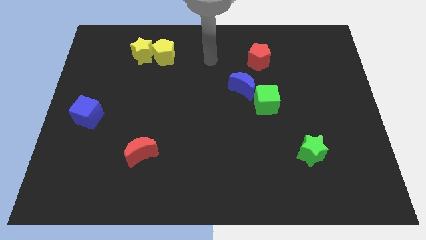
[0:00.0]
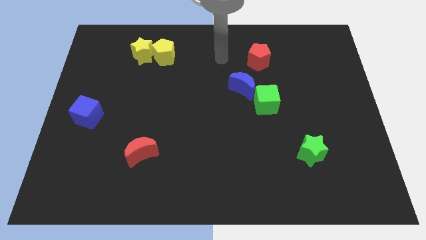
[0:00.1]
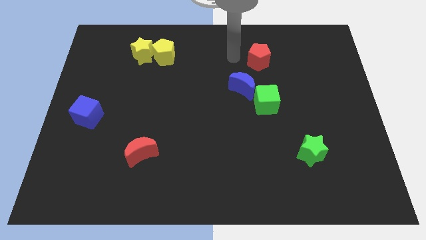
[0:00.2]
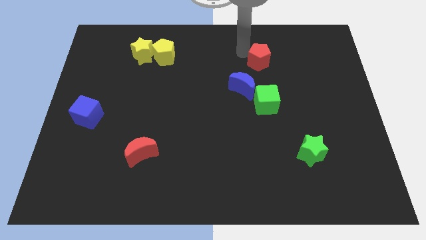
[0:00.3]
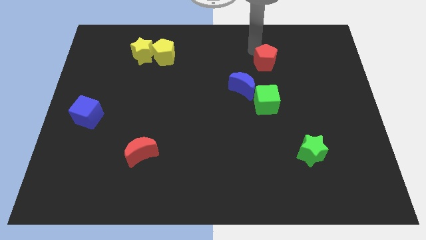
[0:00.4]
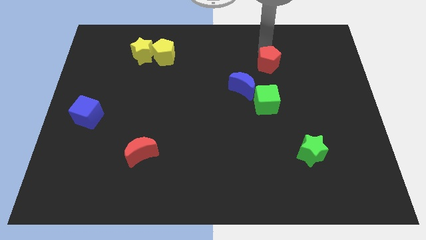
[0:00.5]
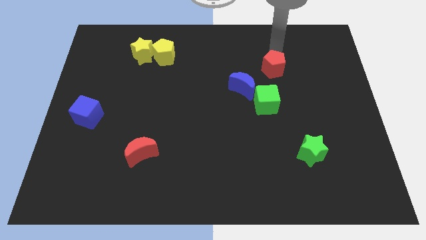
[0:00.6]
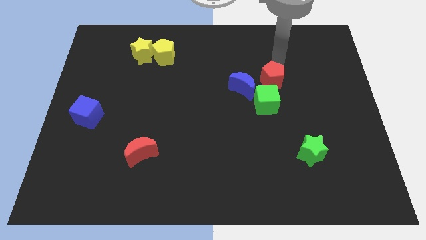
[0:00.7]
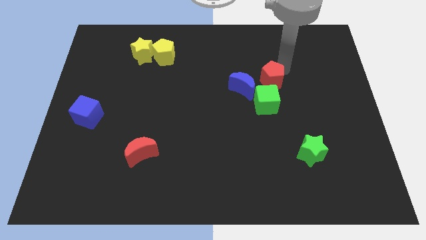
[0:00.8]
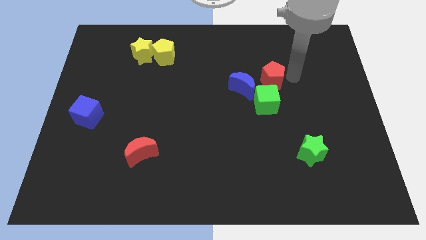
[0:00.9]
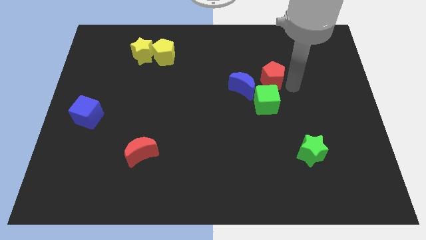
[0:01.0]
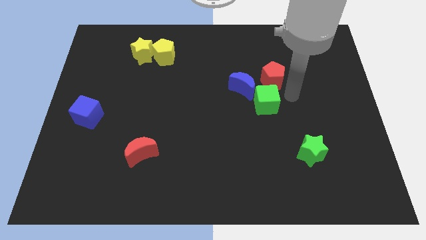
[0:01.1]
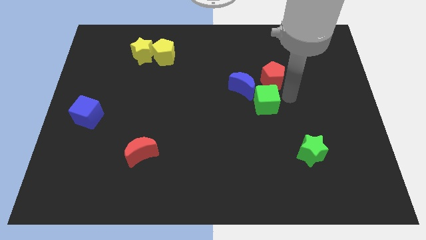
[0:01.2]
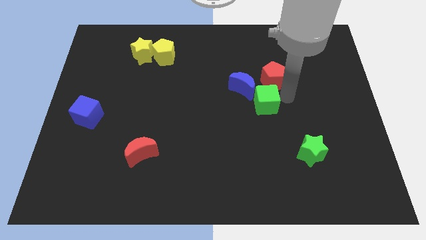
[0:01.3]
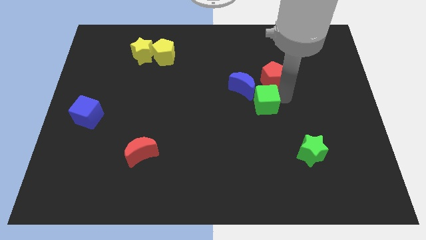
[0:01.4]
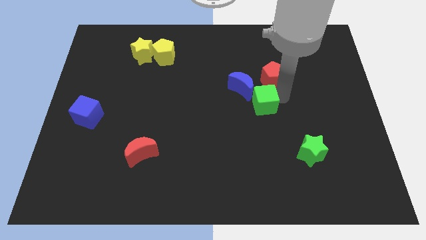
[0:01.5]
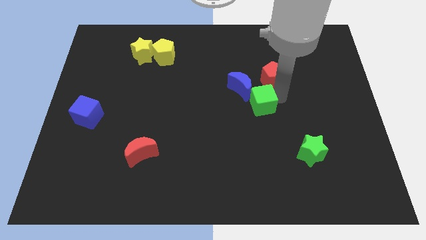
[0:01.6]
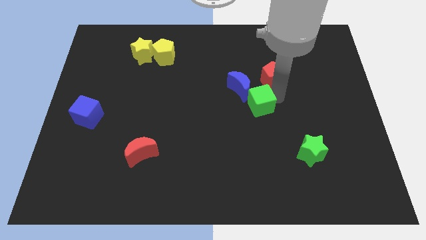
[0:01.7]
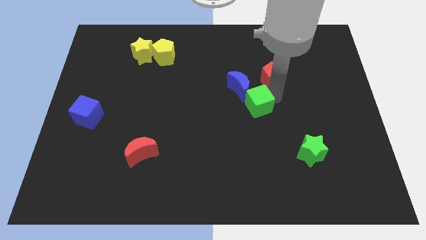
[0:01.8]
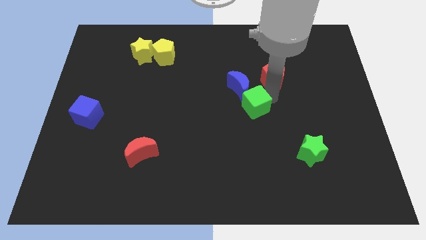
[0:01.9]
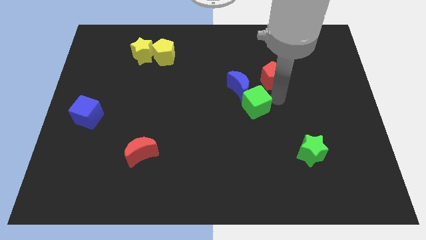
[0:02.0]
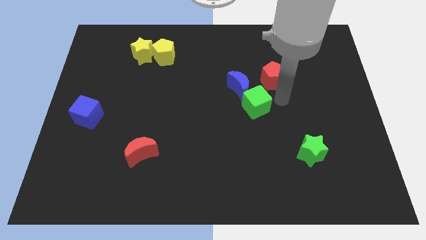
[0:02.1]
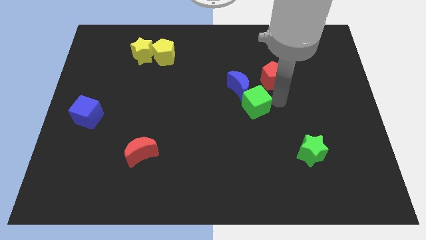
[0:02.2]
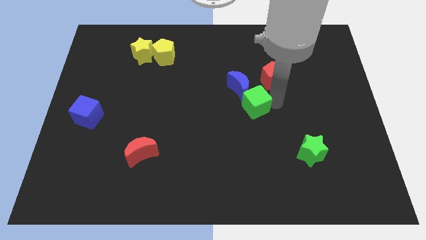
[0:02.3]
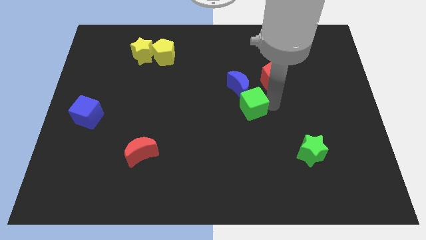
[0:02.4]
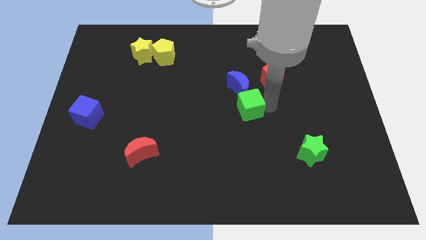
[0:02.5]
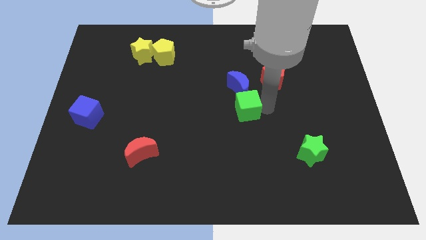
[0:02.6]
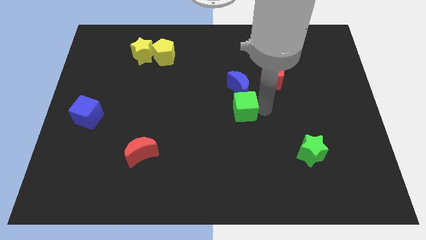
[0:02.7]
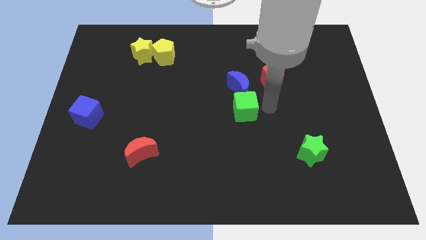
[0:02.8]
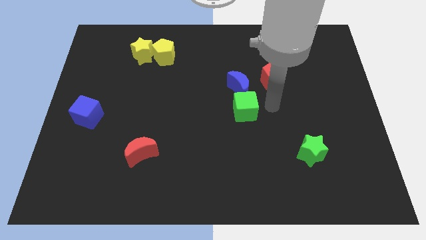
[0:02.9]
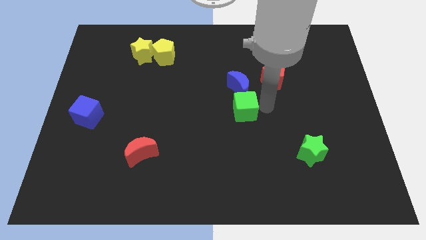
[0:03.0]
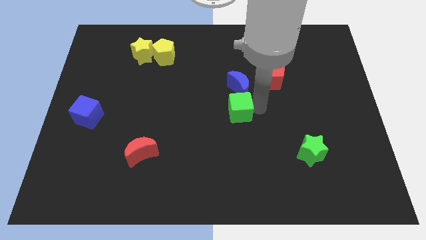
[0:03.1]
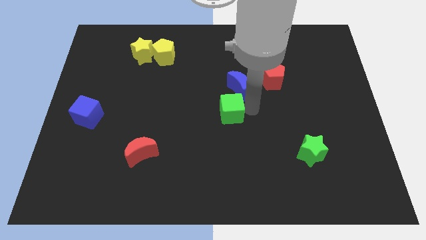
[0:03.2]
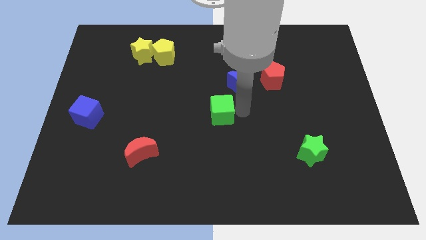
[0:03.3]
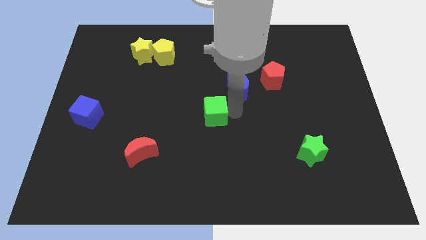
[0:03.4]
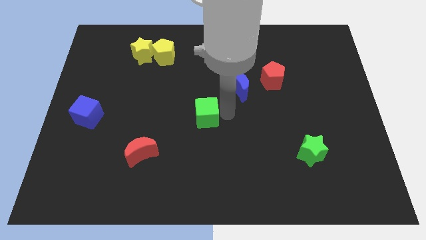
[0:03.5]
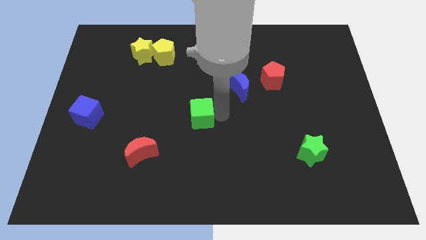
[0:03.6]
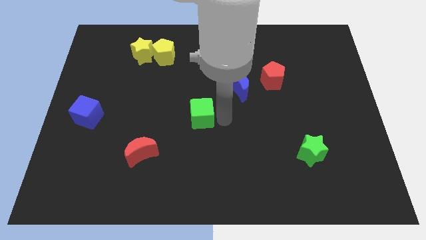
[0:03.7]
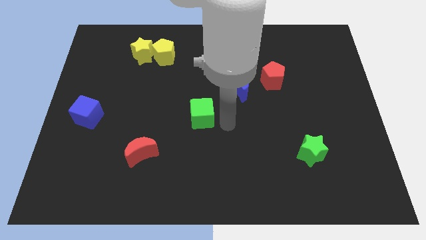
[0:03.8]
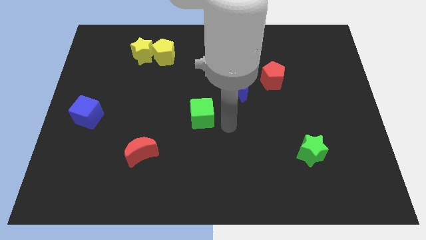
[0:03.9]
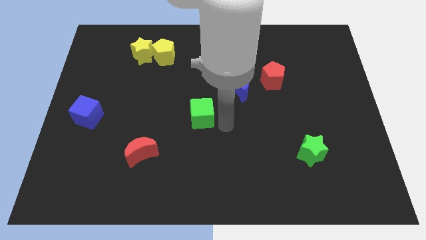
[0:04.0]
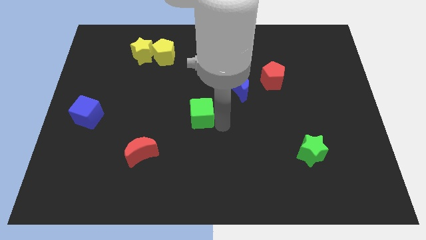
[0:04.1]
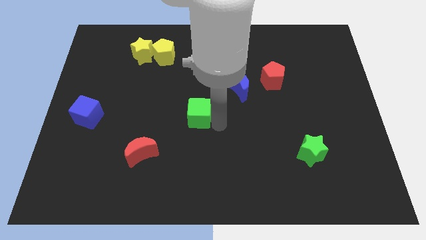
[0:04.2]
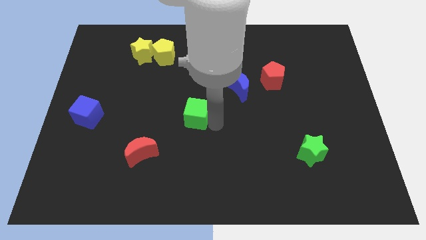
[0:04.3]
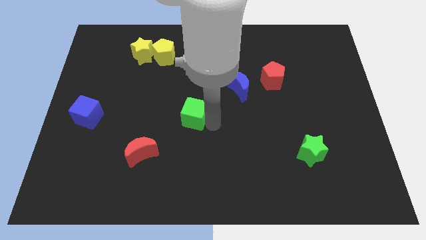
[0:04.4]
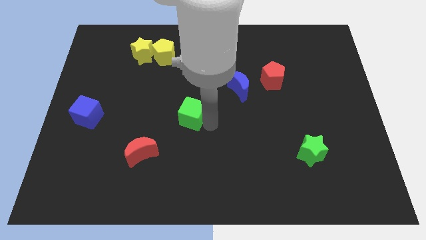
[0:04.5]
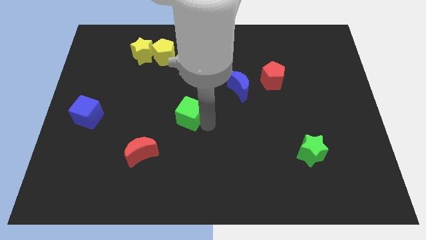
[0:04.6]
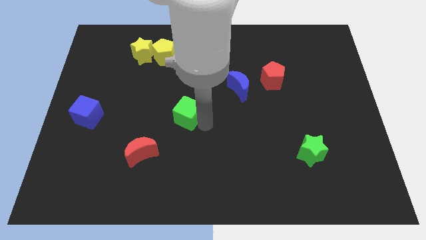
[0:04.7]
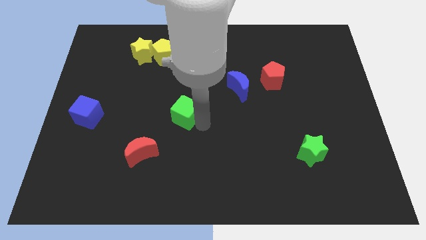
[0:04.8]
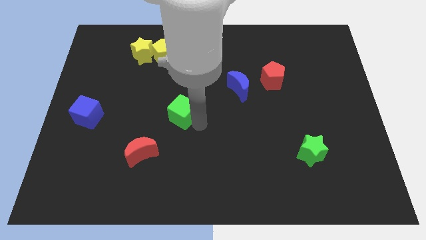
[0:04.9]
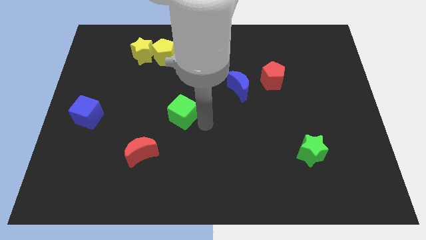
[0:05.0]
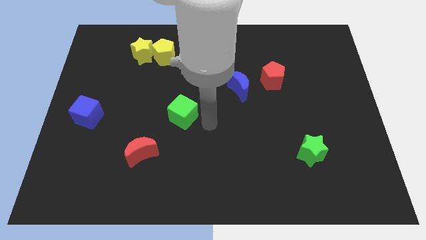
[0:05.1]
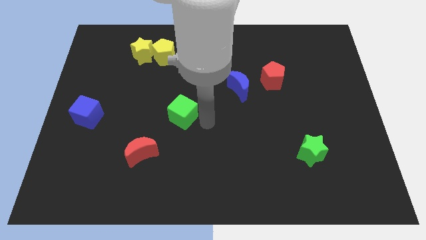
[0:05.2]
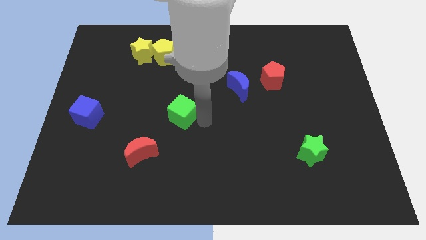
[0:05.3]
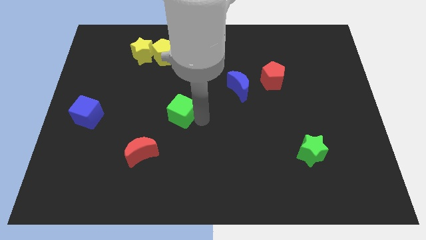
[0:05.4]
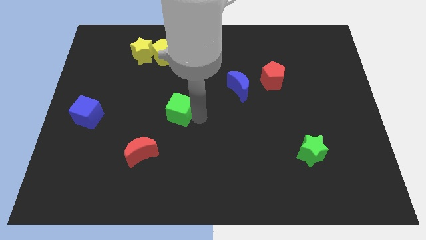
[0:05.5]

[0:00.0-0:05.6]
move the green cube to the left

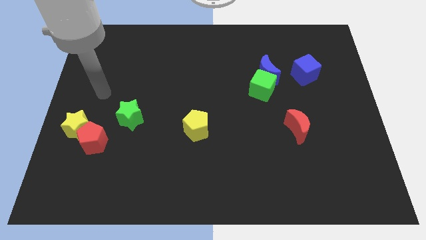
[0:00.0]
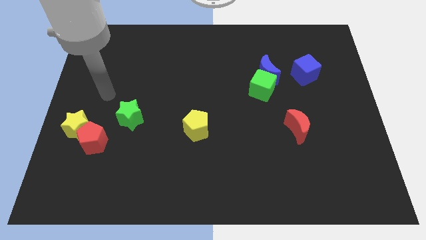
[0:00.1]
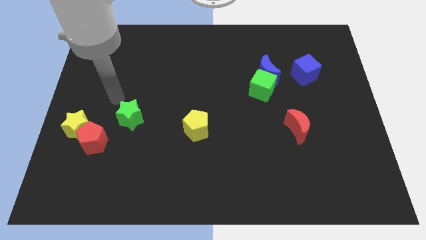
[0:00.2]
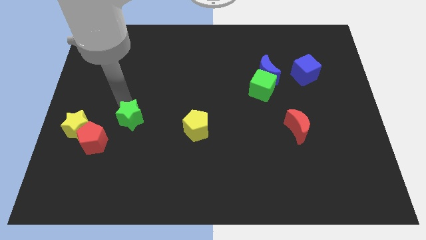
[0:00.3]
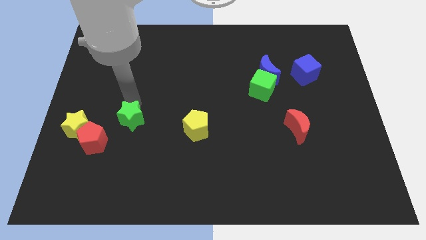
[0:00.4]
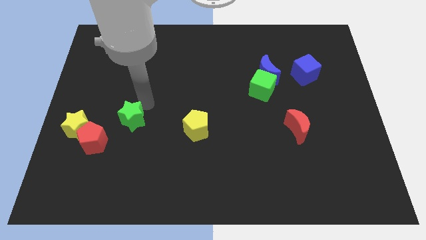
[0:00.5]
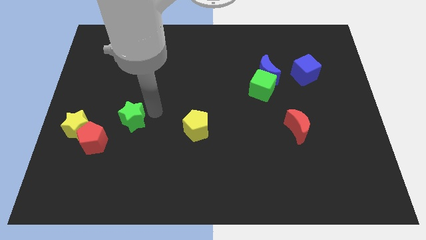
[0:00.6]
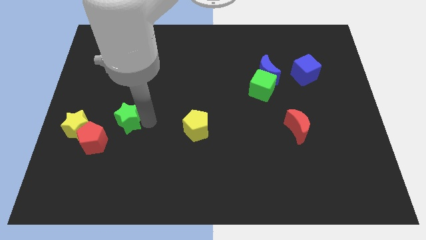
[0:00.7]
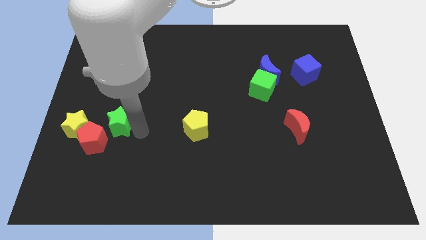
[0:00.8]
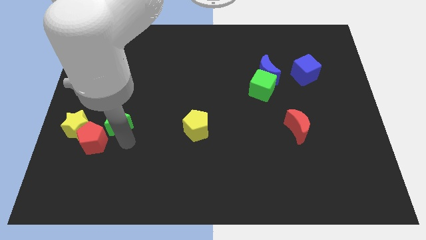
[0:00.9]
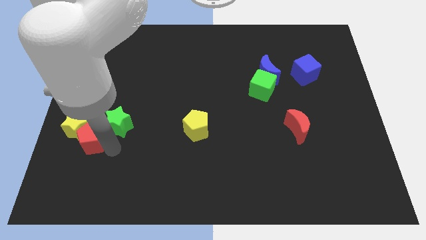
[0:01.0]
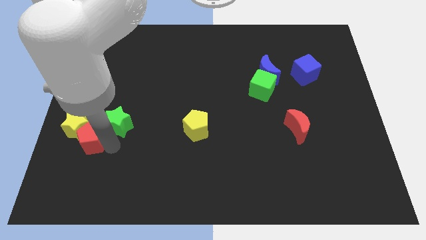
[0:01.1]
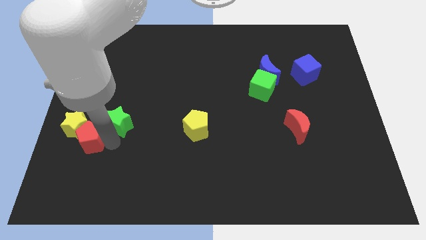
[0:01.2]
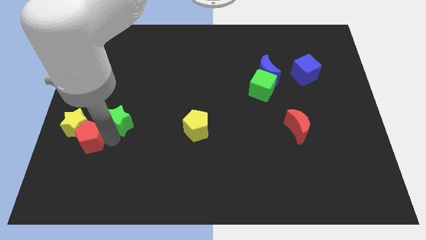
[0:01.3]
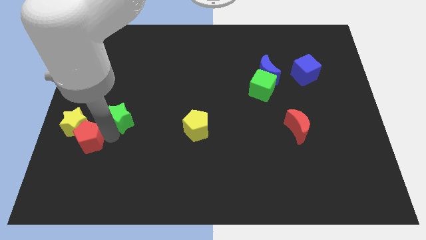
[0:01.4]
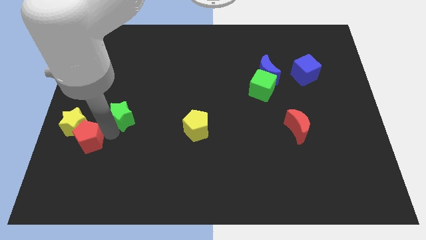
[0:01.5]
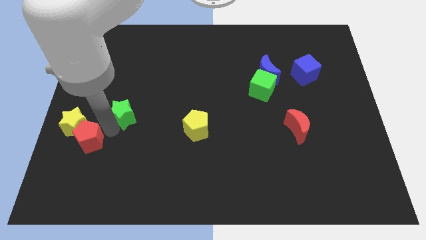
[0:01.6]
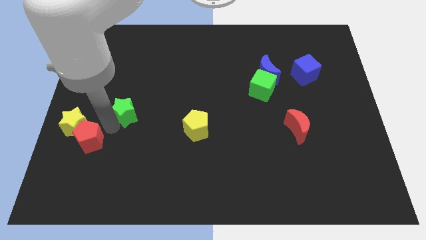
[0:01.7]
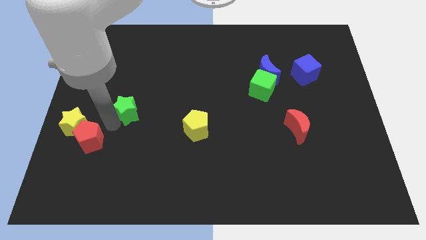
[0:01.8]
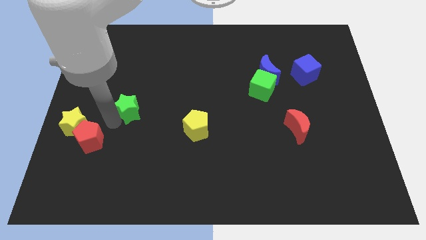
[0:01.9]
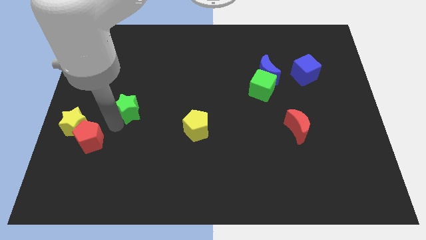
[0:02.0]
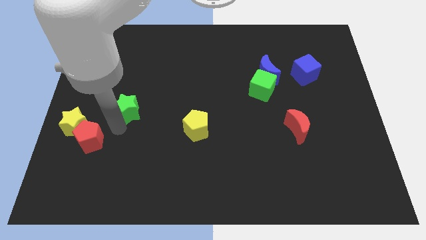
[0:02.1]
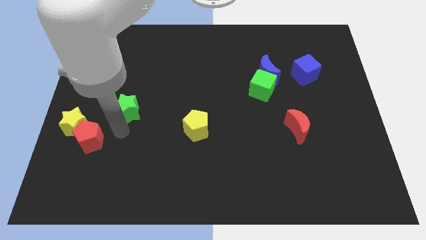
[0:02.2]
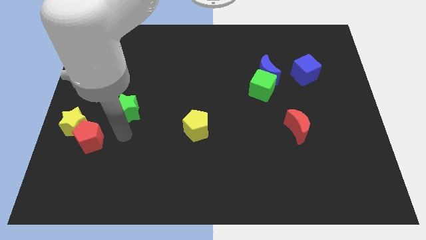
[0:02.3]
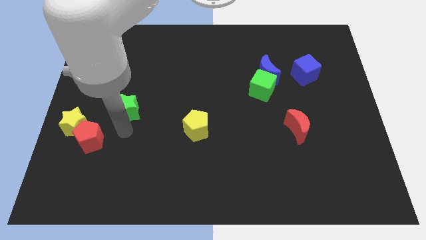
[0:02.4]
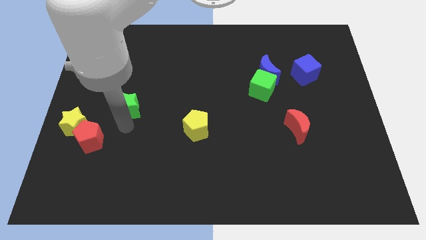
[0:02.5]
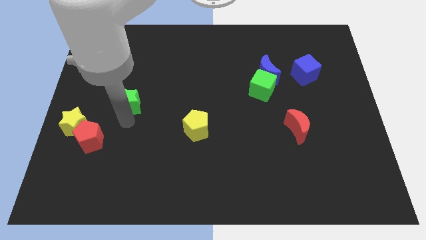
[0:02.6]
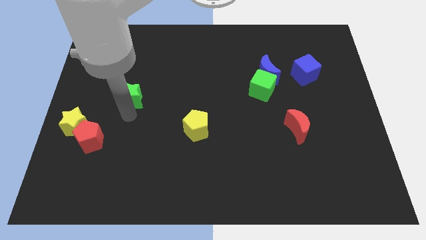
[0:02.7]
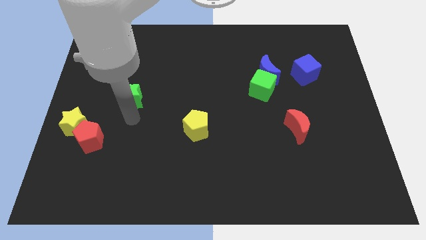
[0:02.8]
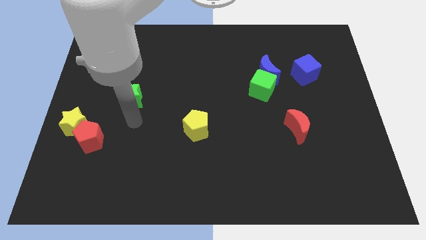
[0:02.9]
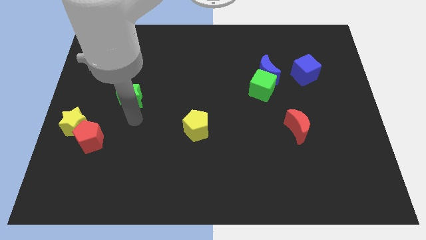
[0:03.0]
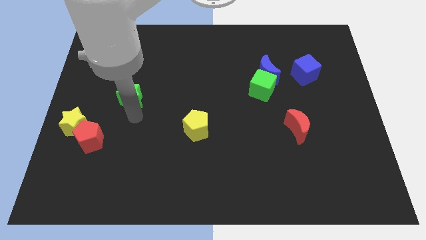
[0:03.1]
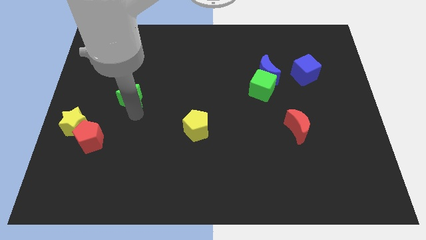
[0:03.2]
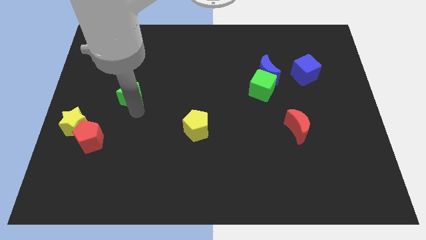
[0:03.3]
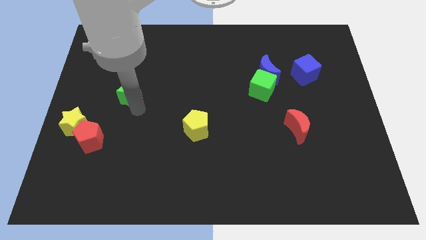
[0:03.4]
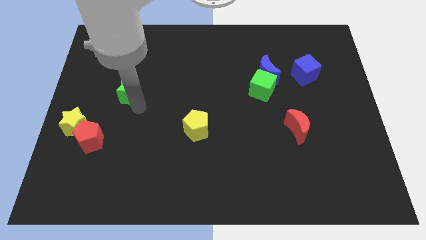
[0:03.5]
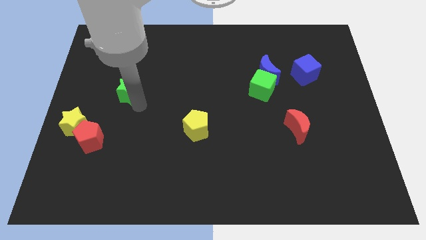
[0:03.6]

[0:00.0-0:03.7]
slightly move the green star up
